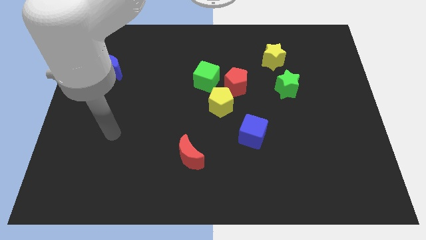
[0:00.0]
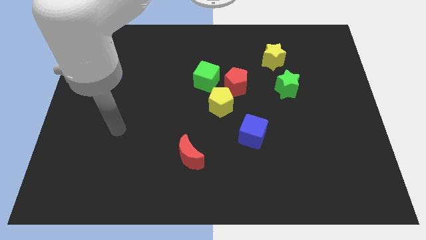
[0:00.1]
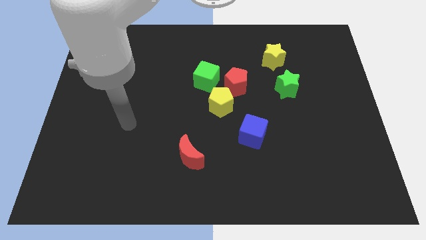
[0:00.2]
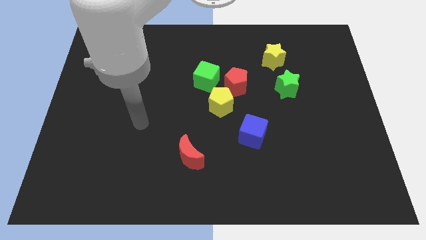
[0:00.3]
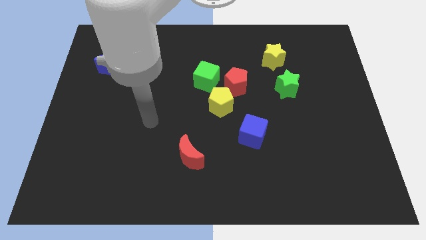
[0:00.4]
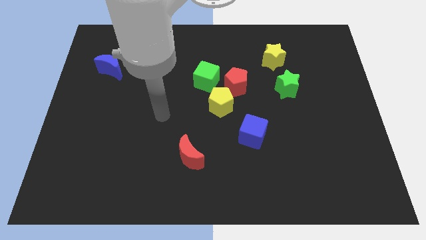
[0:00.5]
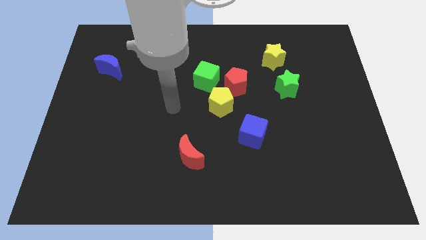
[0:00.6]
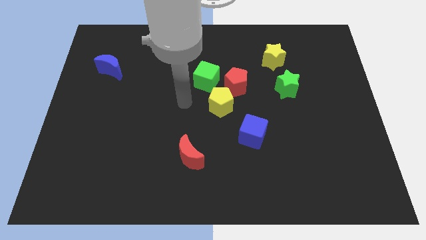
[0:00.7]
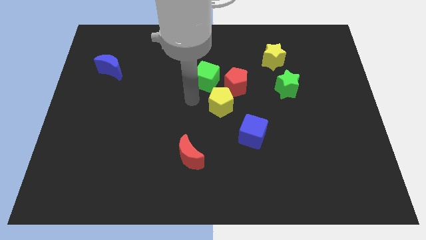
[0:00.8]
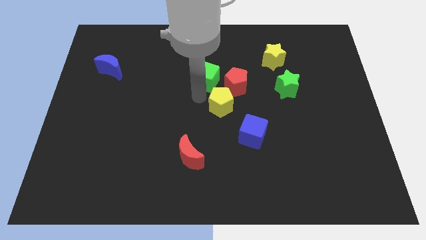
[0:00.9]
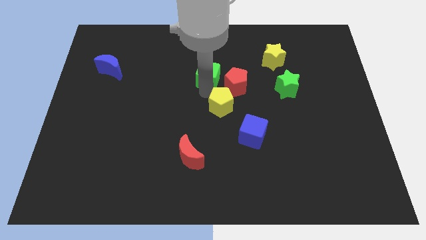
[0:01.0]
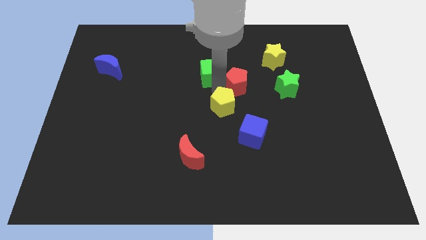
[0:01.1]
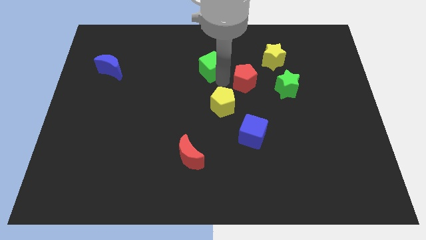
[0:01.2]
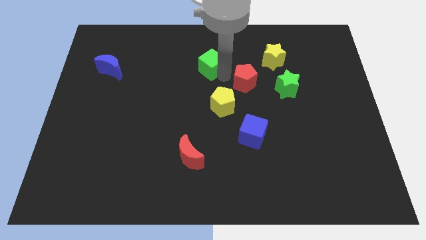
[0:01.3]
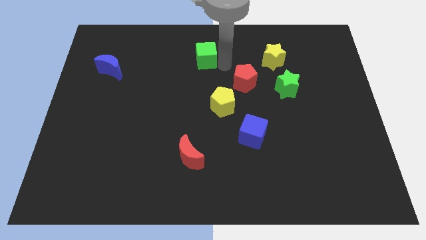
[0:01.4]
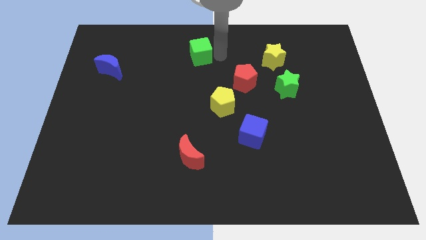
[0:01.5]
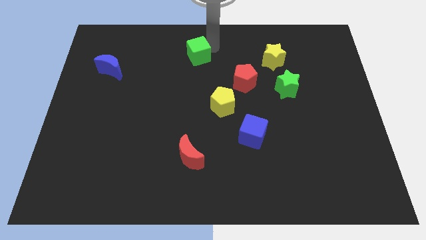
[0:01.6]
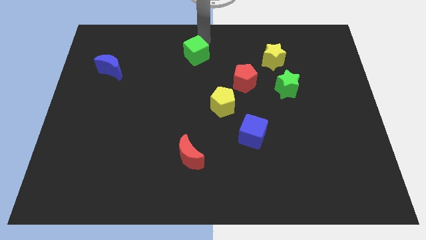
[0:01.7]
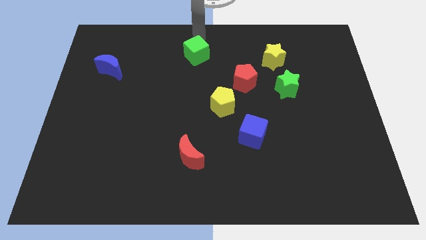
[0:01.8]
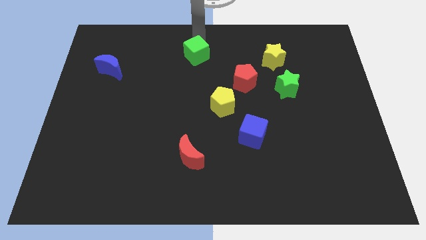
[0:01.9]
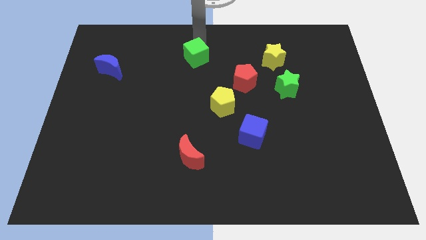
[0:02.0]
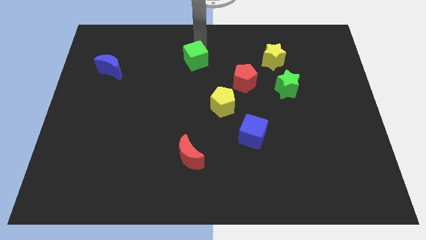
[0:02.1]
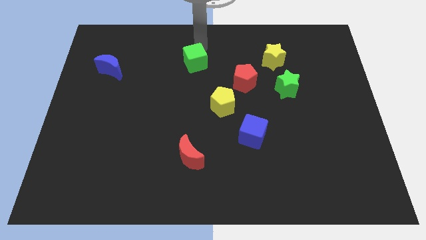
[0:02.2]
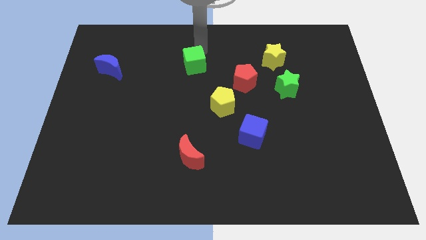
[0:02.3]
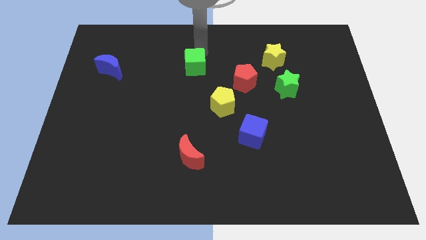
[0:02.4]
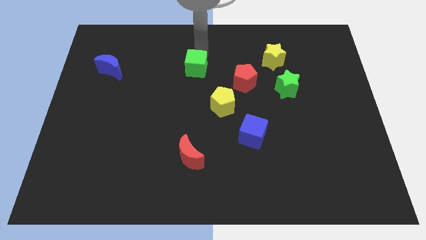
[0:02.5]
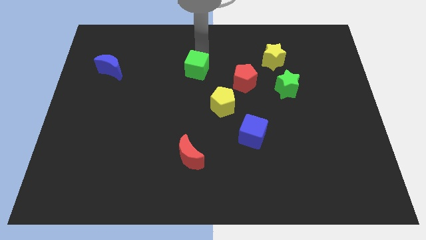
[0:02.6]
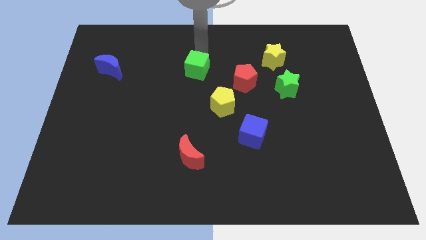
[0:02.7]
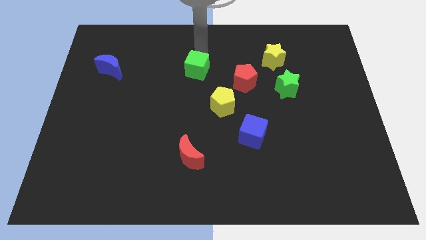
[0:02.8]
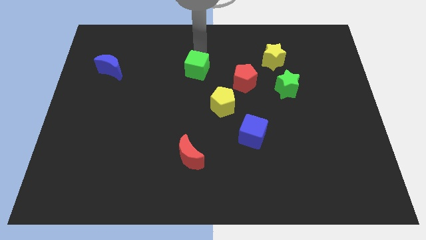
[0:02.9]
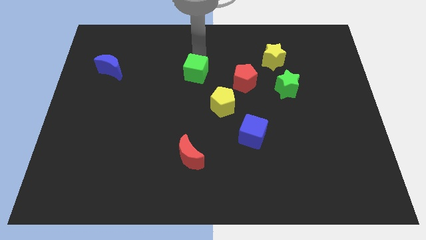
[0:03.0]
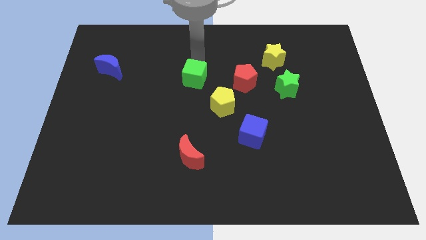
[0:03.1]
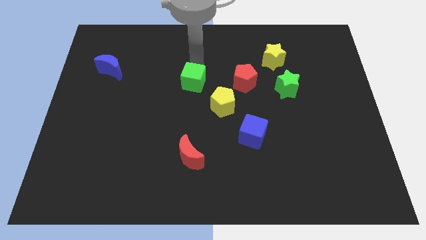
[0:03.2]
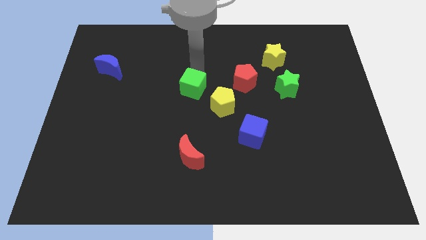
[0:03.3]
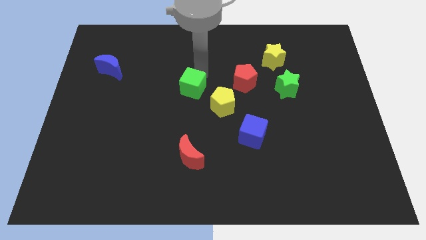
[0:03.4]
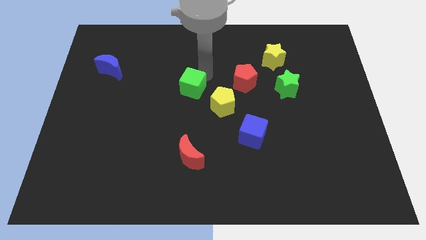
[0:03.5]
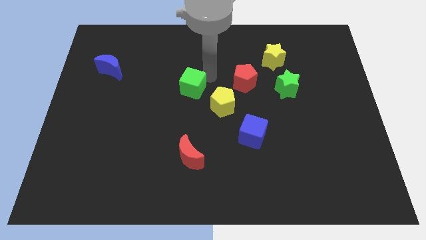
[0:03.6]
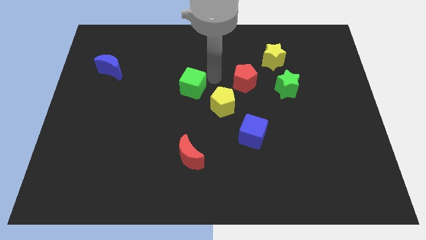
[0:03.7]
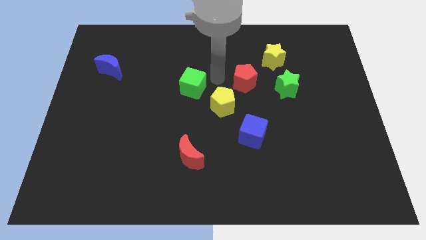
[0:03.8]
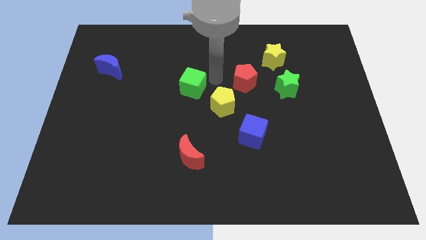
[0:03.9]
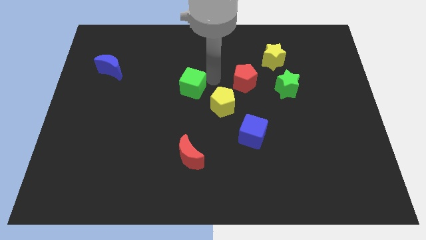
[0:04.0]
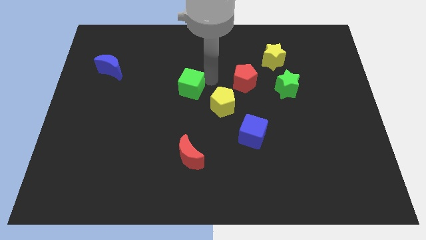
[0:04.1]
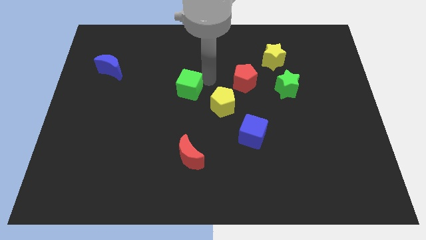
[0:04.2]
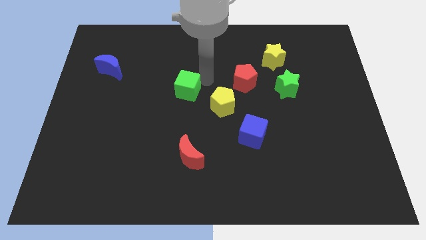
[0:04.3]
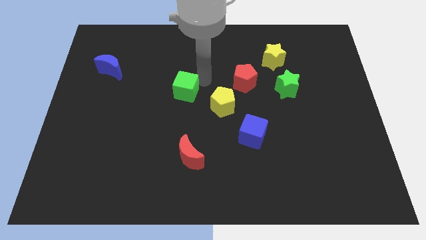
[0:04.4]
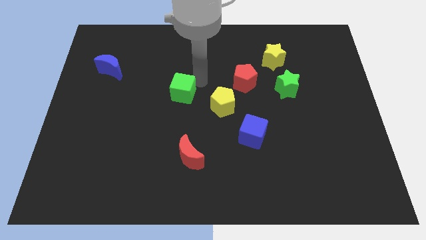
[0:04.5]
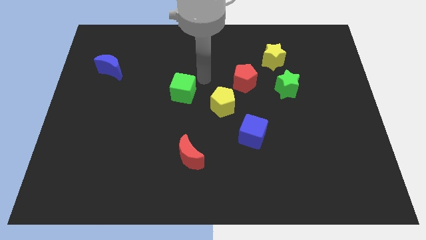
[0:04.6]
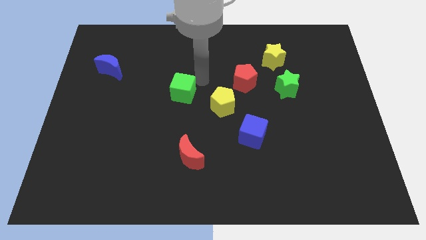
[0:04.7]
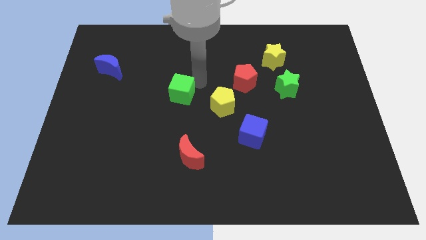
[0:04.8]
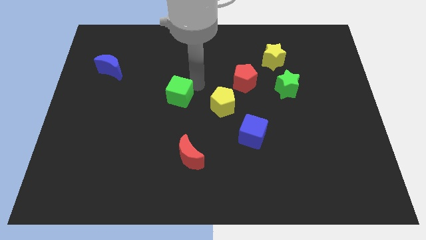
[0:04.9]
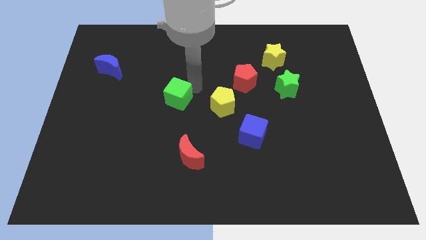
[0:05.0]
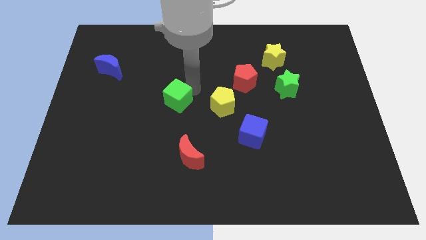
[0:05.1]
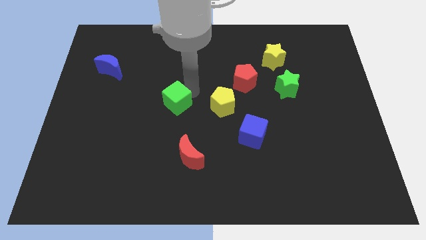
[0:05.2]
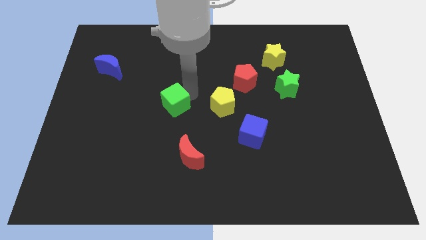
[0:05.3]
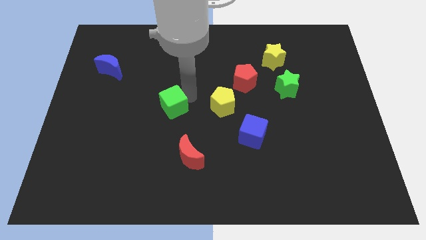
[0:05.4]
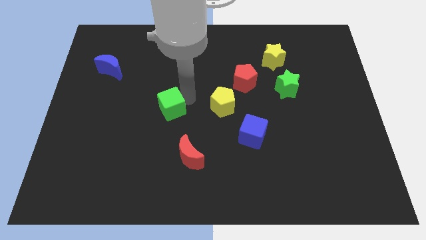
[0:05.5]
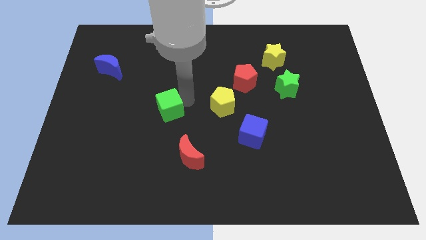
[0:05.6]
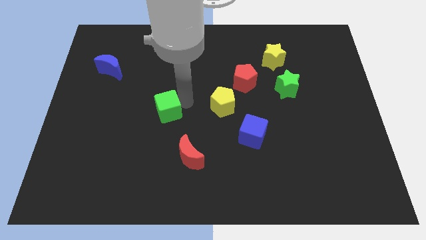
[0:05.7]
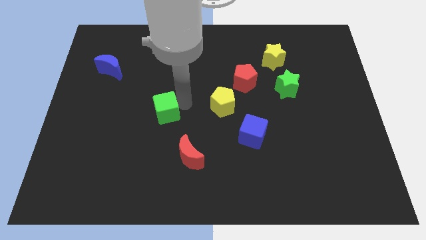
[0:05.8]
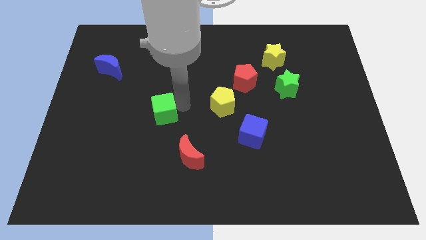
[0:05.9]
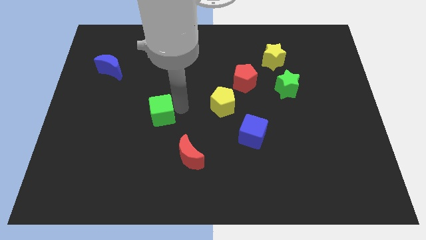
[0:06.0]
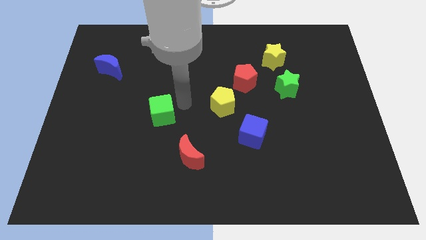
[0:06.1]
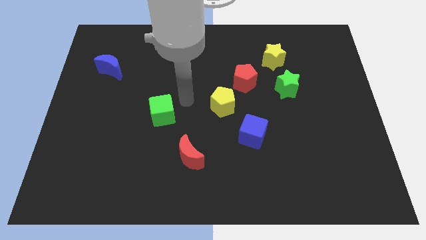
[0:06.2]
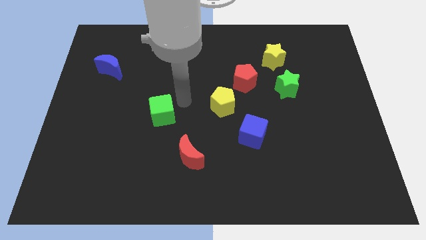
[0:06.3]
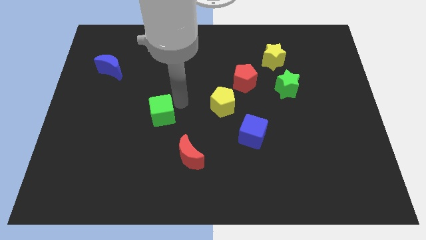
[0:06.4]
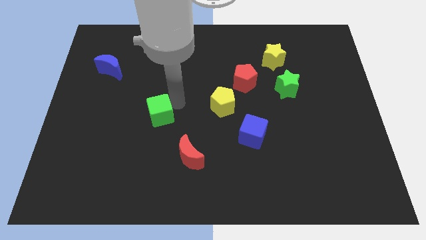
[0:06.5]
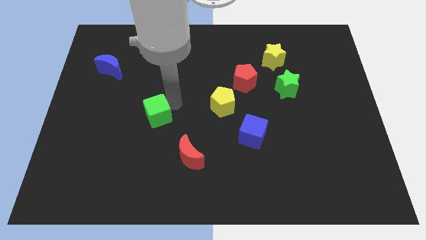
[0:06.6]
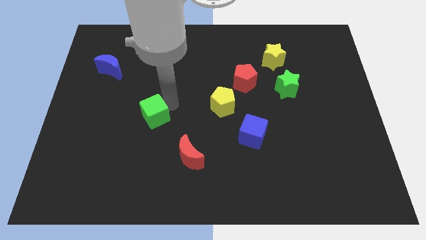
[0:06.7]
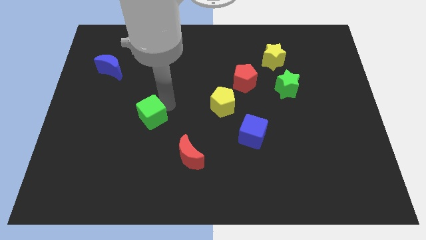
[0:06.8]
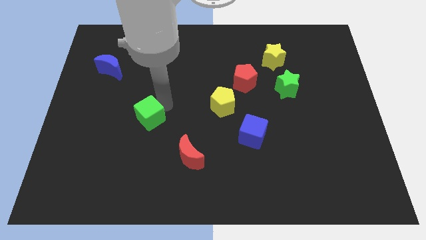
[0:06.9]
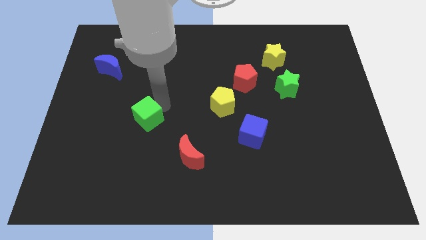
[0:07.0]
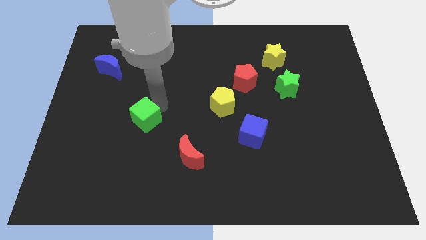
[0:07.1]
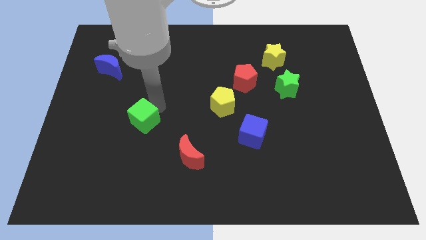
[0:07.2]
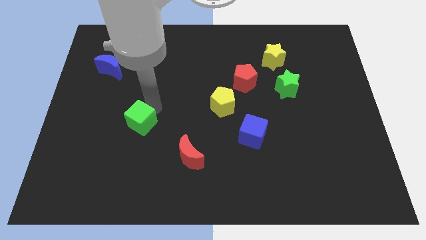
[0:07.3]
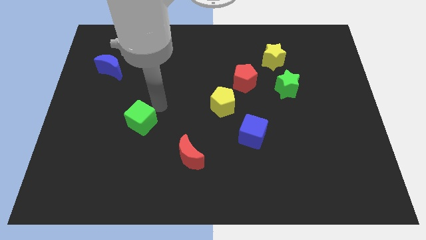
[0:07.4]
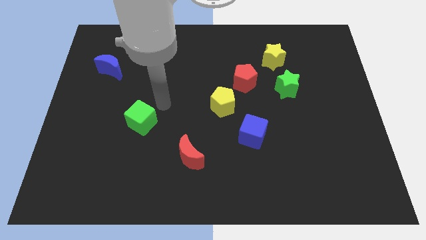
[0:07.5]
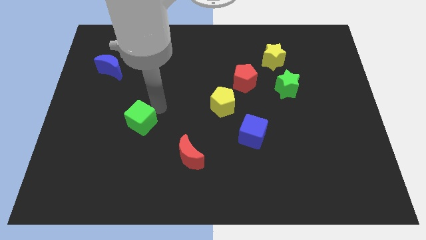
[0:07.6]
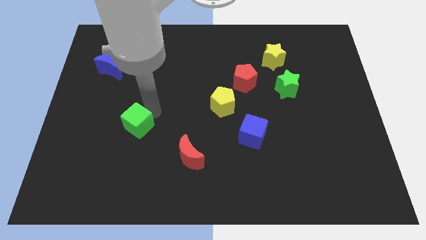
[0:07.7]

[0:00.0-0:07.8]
push the green cube down and to the left diagonally
